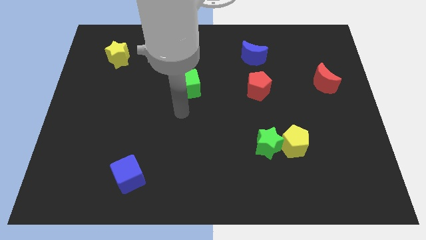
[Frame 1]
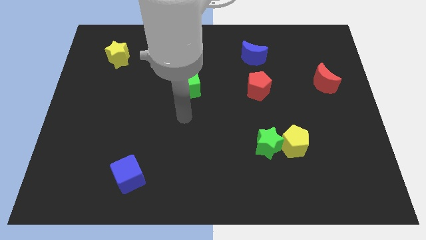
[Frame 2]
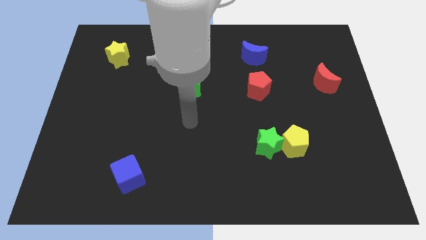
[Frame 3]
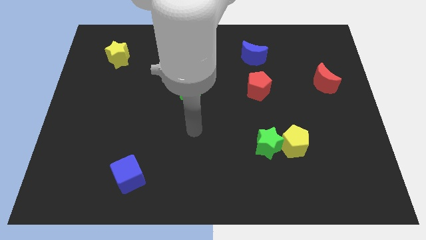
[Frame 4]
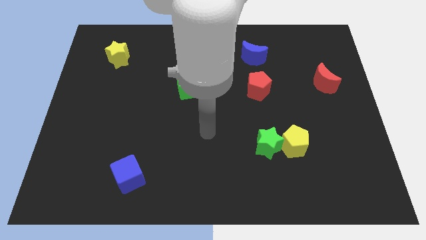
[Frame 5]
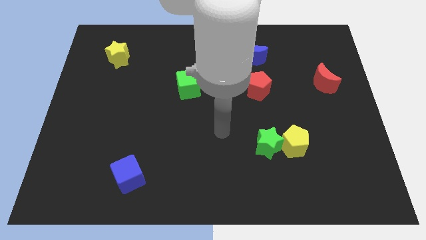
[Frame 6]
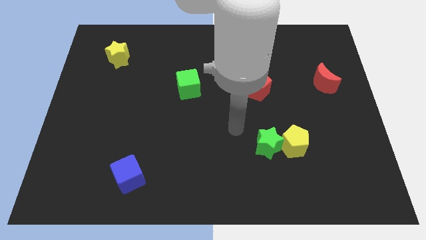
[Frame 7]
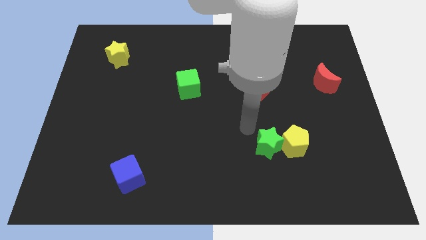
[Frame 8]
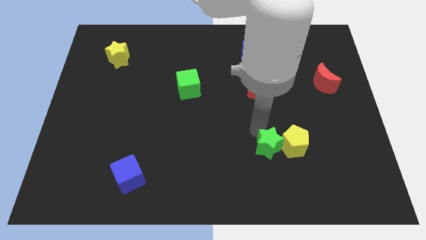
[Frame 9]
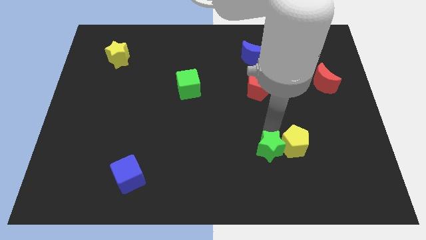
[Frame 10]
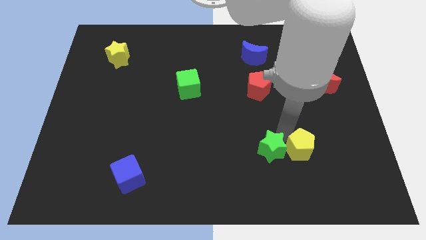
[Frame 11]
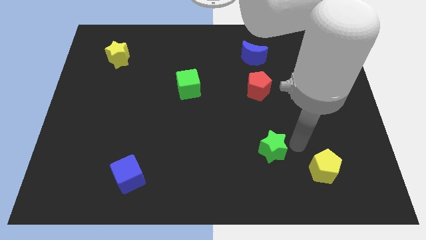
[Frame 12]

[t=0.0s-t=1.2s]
move the green star away from the yellow pentagon

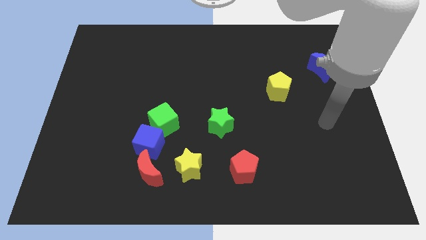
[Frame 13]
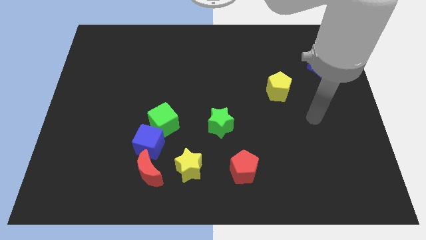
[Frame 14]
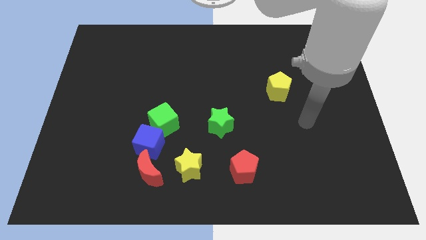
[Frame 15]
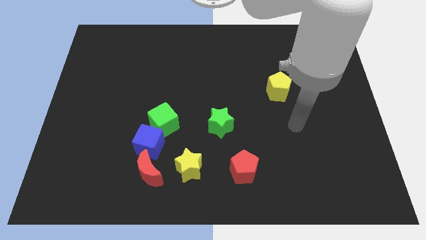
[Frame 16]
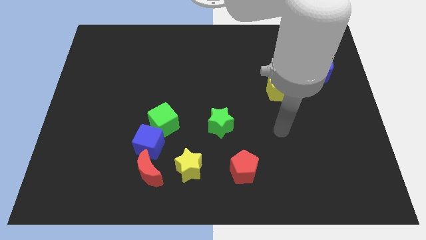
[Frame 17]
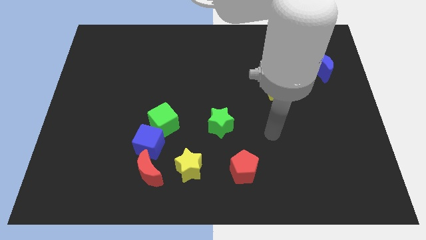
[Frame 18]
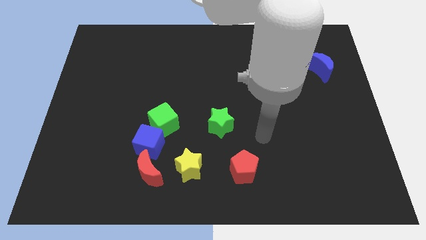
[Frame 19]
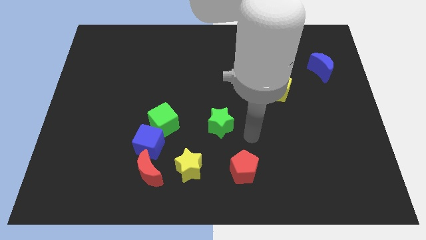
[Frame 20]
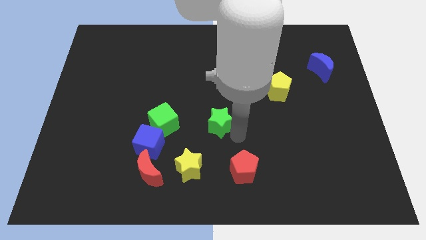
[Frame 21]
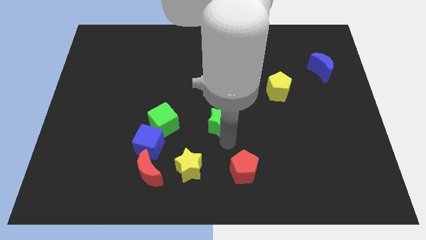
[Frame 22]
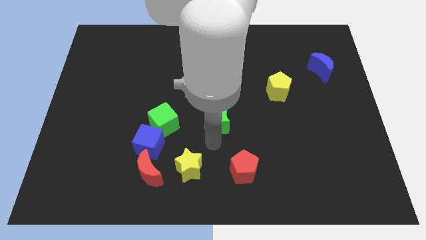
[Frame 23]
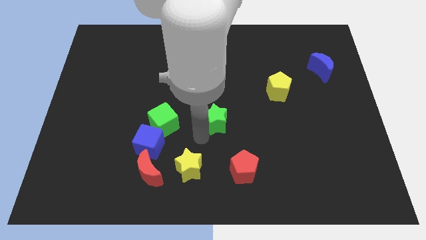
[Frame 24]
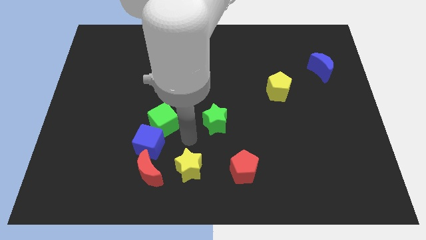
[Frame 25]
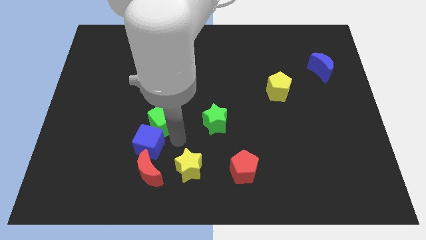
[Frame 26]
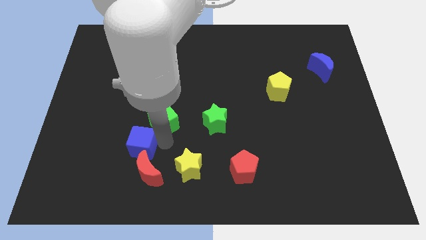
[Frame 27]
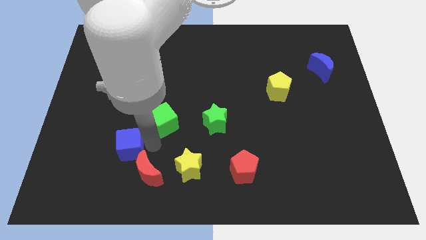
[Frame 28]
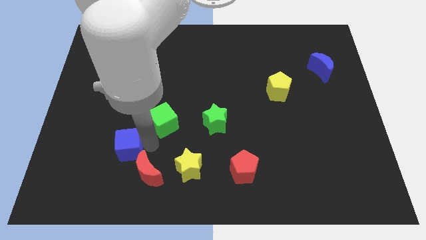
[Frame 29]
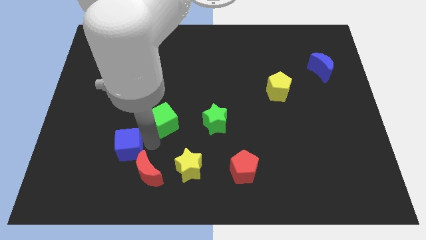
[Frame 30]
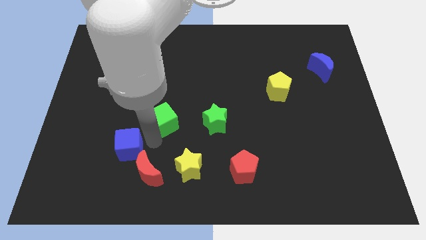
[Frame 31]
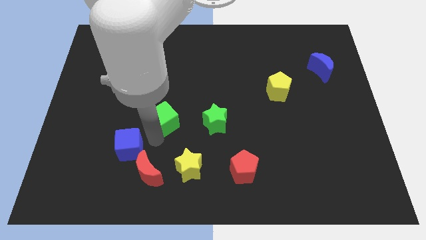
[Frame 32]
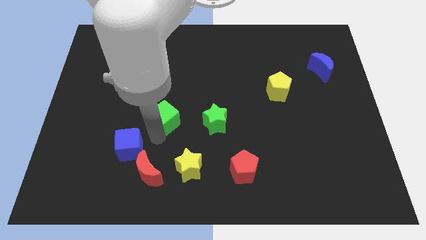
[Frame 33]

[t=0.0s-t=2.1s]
move the green cube away from the blue cube

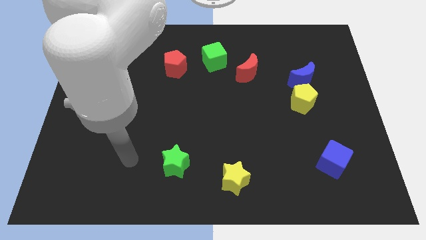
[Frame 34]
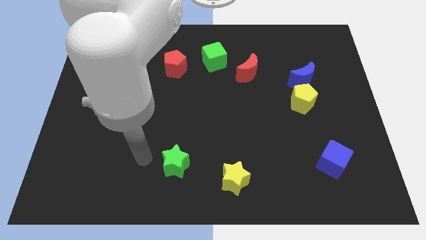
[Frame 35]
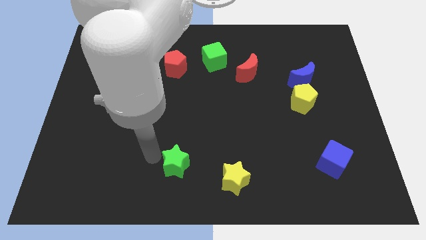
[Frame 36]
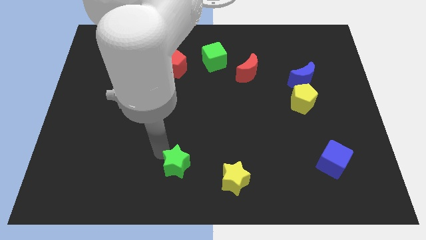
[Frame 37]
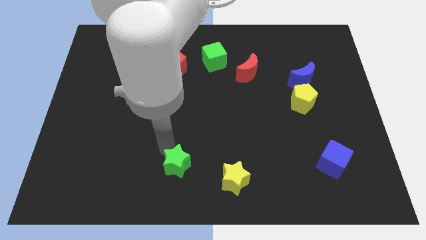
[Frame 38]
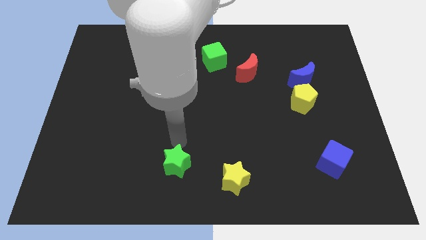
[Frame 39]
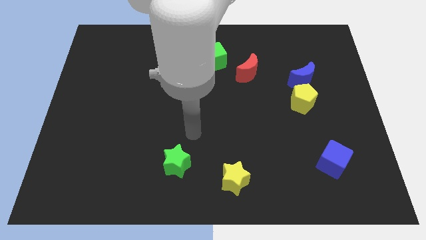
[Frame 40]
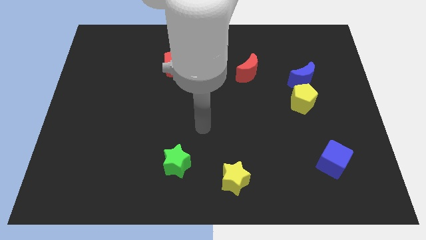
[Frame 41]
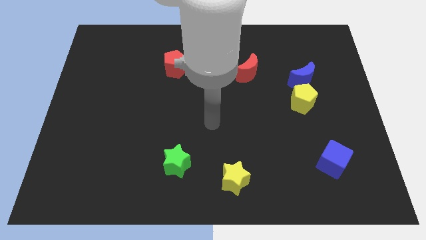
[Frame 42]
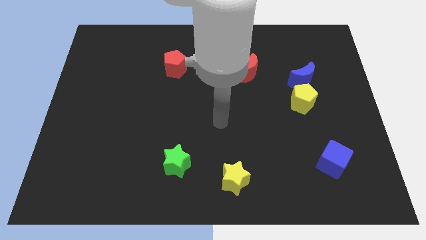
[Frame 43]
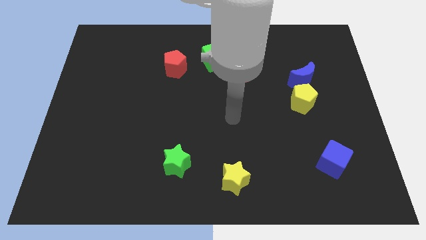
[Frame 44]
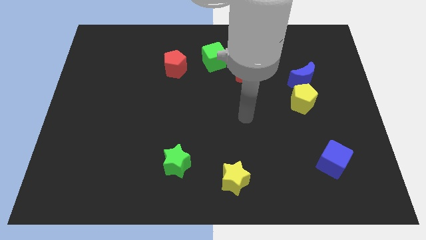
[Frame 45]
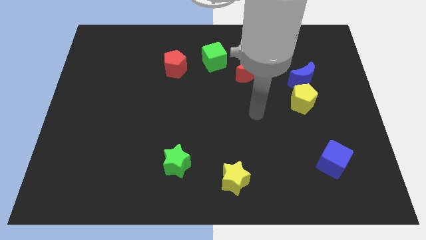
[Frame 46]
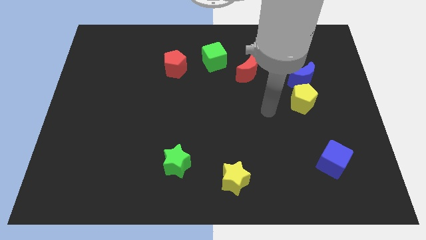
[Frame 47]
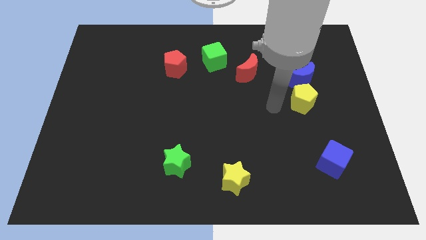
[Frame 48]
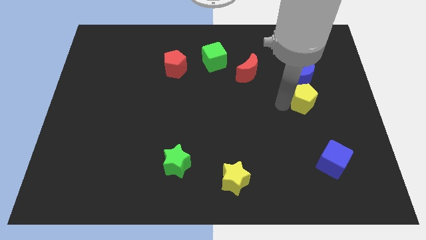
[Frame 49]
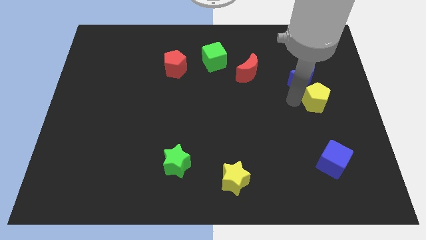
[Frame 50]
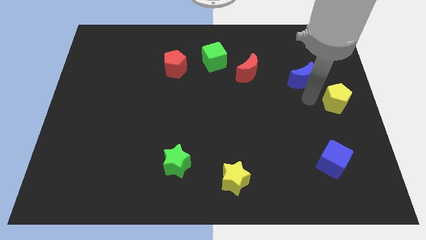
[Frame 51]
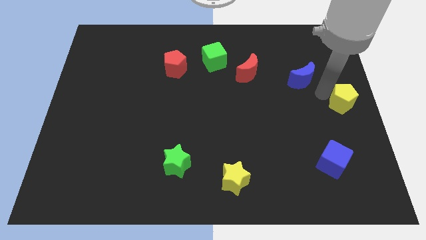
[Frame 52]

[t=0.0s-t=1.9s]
move the blue moon away from the yellow pentagon

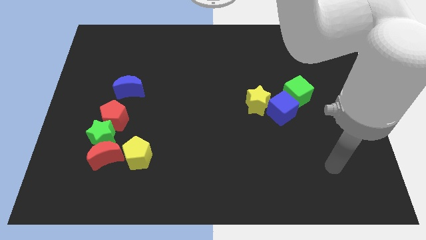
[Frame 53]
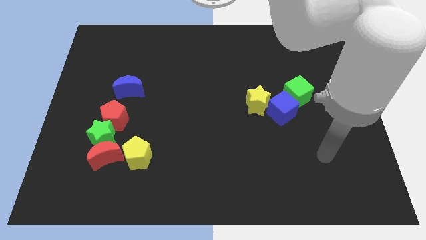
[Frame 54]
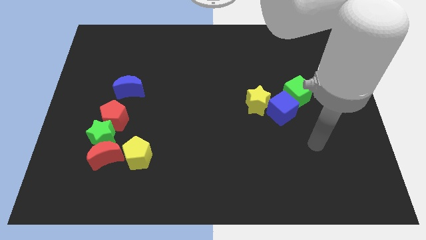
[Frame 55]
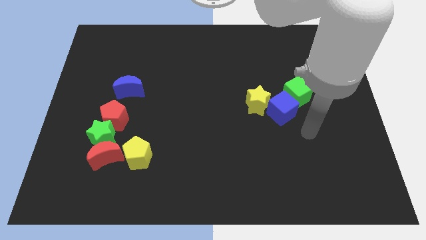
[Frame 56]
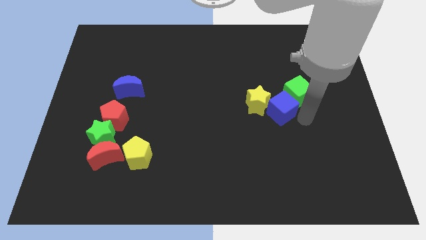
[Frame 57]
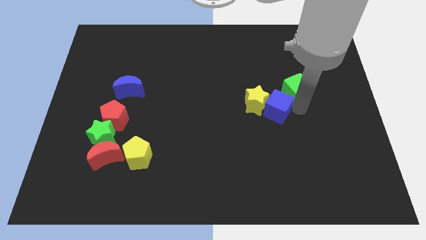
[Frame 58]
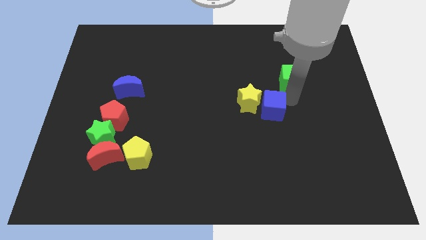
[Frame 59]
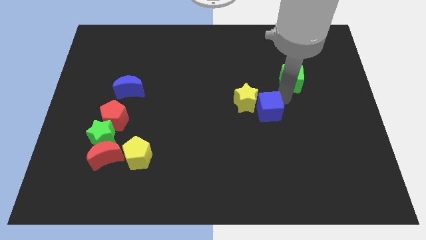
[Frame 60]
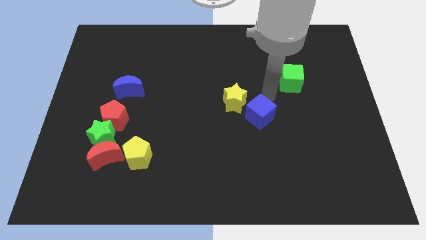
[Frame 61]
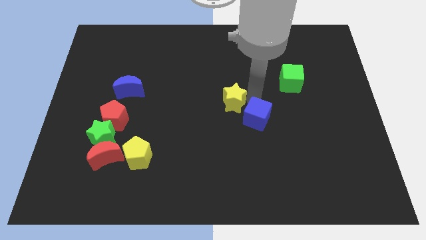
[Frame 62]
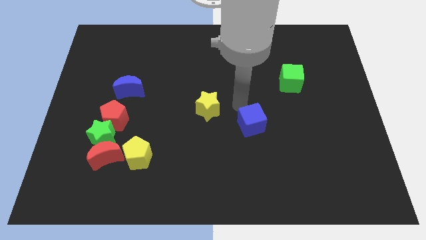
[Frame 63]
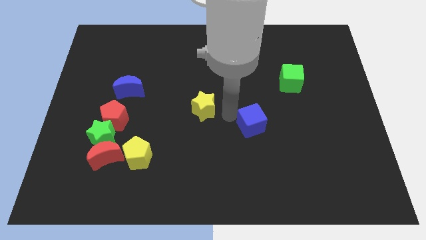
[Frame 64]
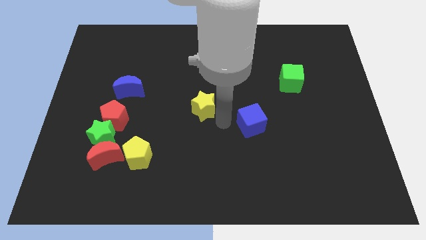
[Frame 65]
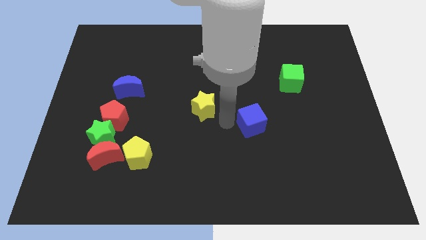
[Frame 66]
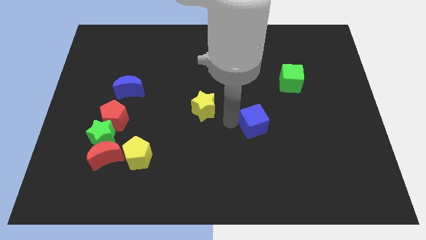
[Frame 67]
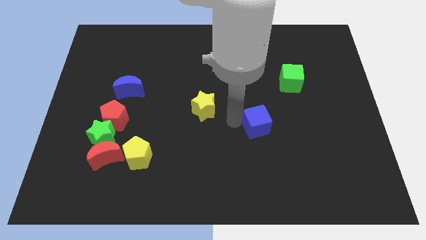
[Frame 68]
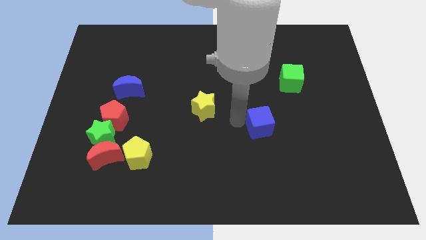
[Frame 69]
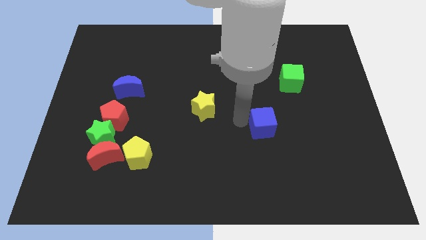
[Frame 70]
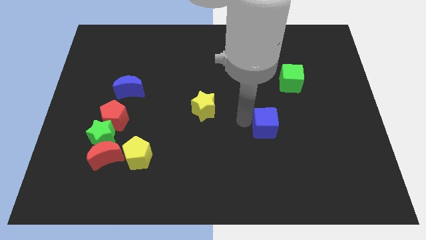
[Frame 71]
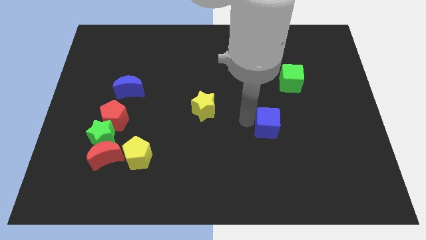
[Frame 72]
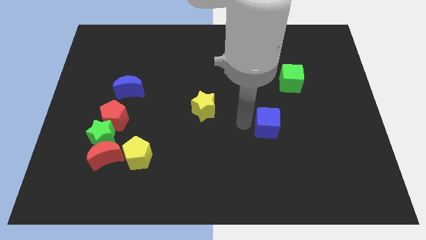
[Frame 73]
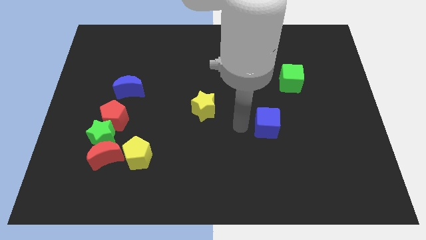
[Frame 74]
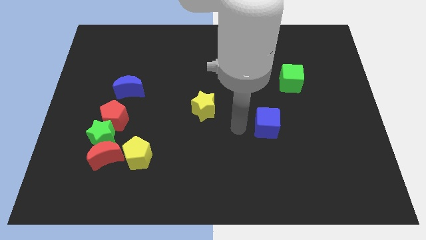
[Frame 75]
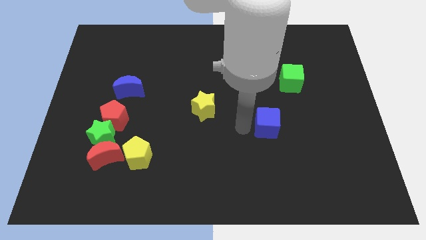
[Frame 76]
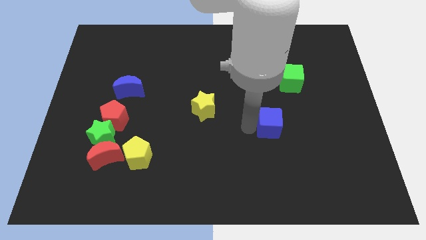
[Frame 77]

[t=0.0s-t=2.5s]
move the blue cube away from the yellow star and green cube

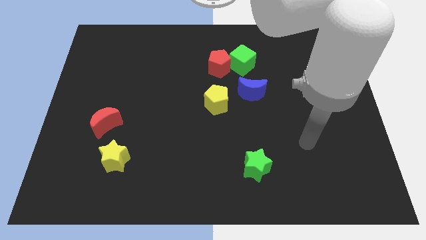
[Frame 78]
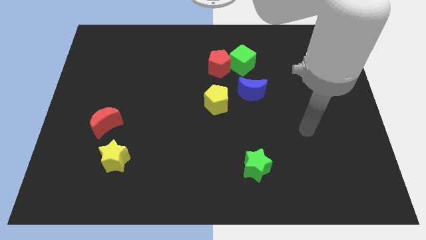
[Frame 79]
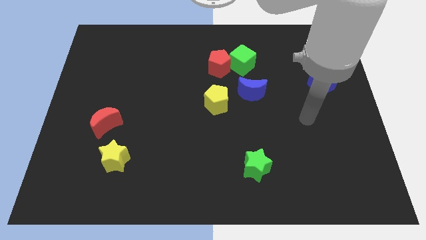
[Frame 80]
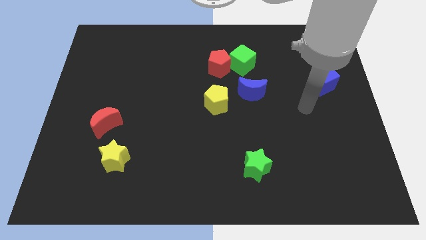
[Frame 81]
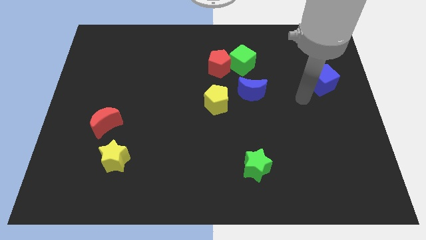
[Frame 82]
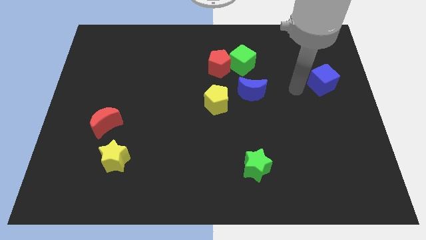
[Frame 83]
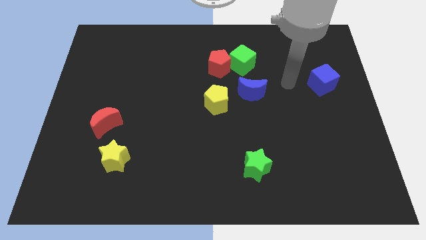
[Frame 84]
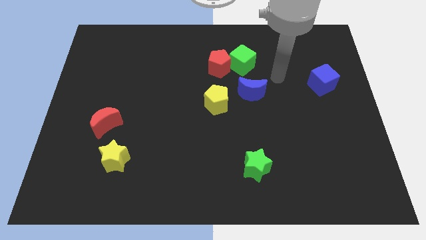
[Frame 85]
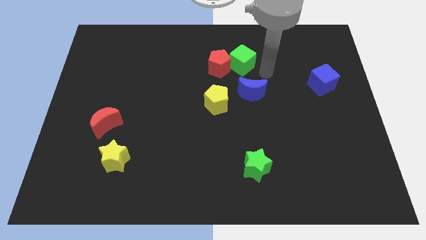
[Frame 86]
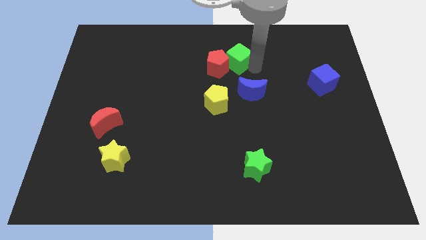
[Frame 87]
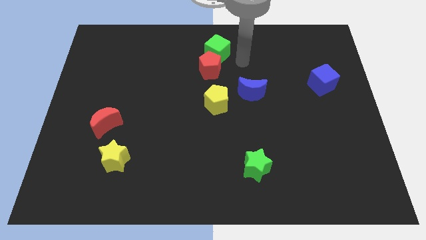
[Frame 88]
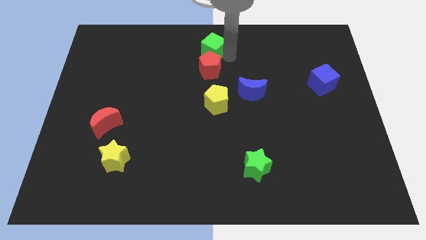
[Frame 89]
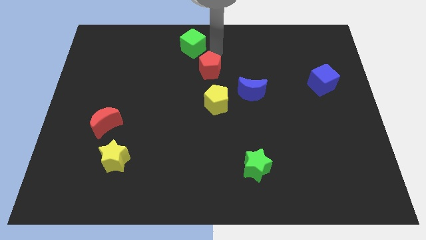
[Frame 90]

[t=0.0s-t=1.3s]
pull the red pentagon apart from the green cube

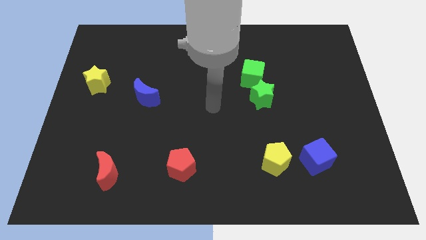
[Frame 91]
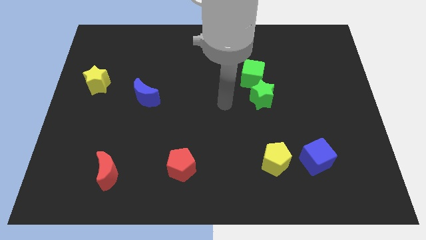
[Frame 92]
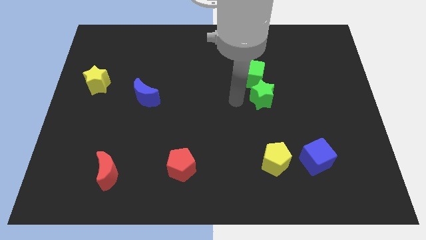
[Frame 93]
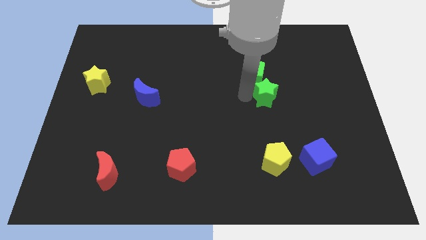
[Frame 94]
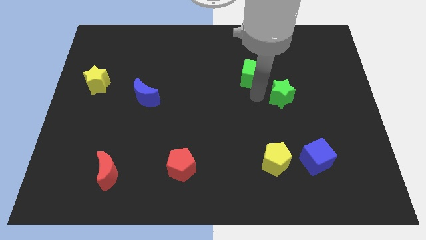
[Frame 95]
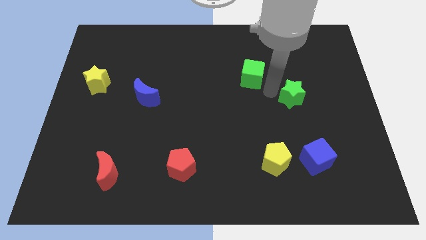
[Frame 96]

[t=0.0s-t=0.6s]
pull the green cube apart from the green star
